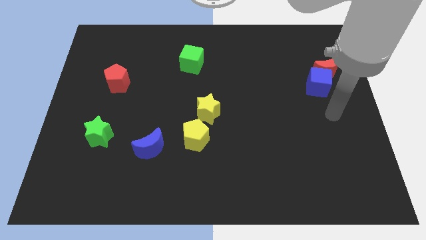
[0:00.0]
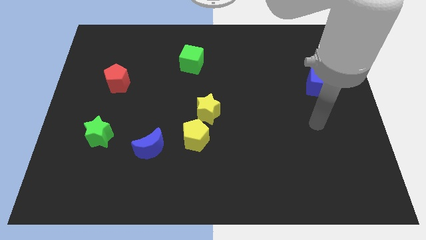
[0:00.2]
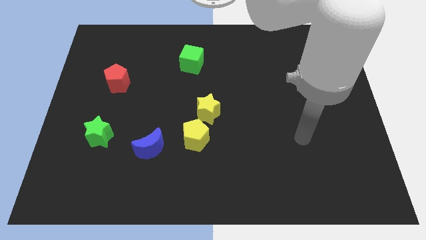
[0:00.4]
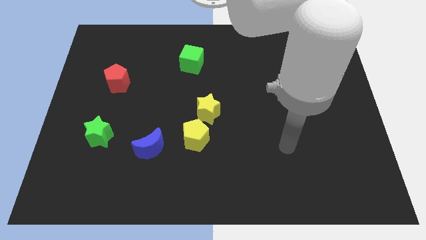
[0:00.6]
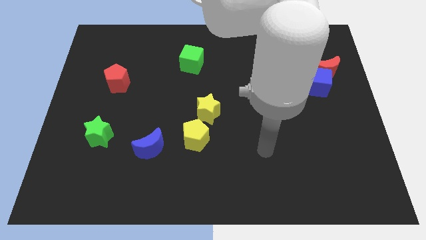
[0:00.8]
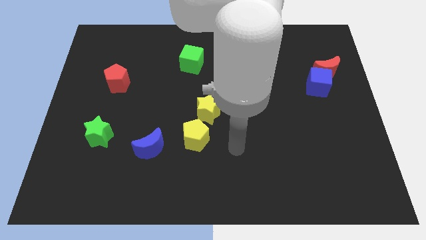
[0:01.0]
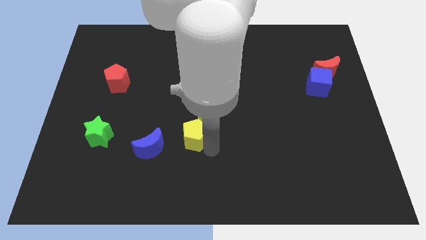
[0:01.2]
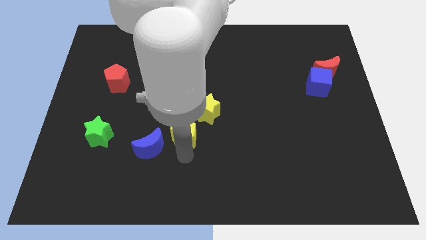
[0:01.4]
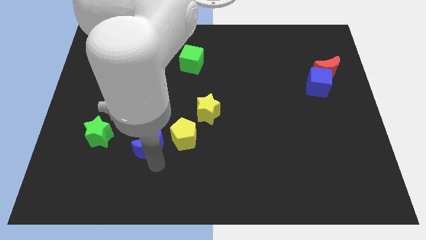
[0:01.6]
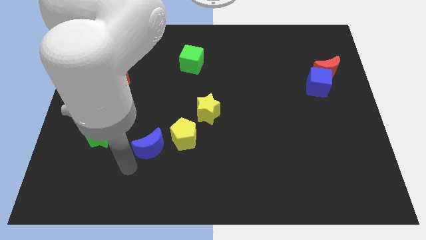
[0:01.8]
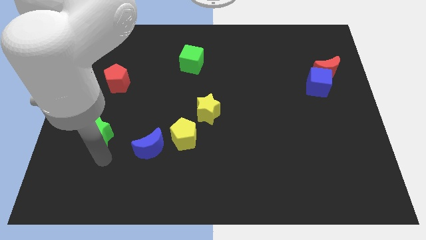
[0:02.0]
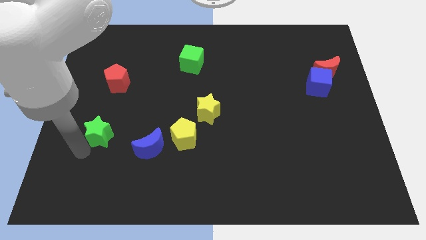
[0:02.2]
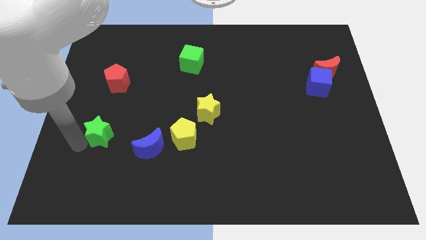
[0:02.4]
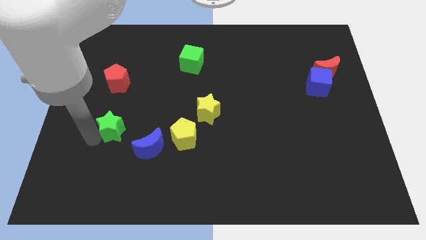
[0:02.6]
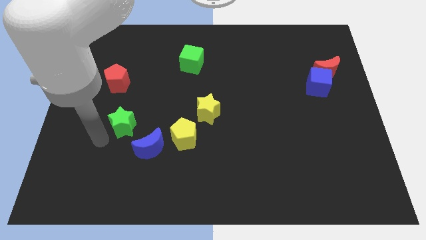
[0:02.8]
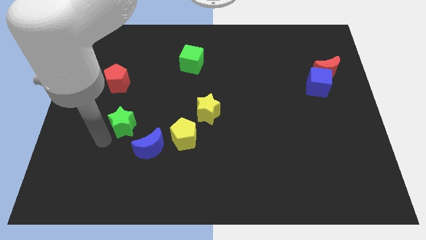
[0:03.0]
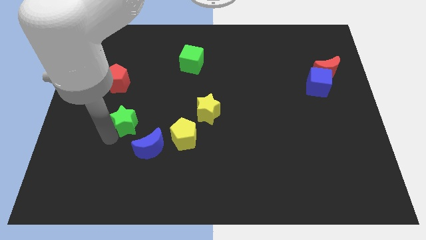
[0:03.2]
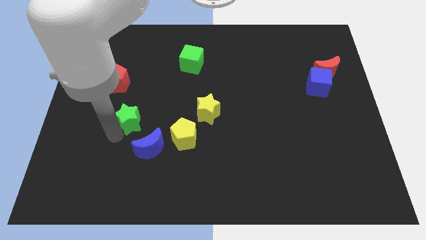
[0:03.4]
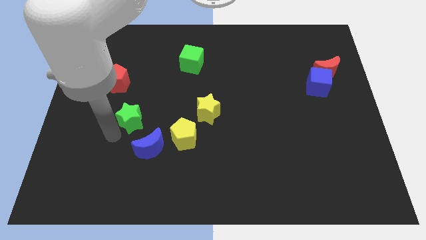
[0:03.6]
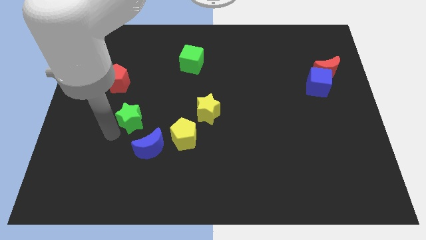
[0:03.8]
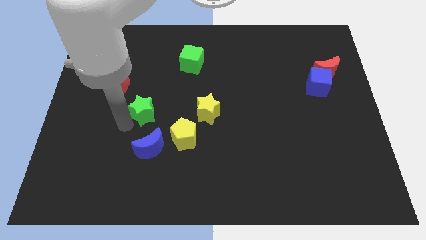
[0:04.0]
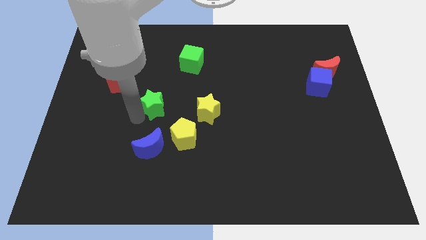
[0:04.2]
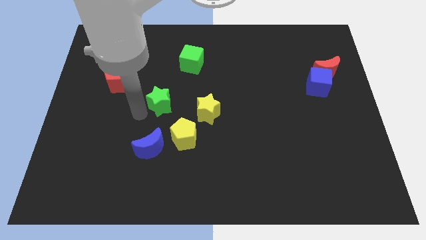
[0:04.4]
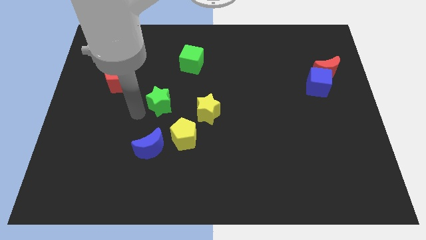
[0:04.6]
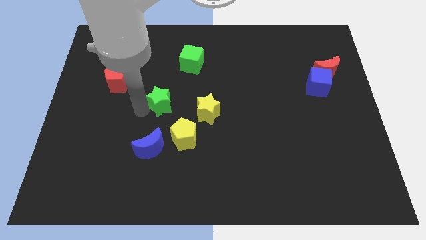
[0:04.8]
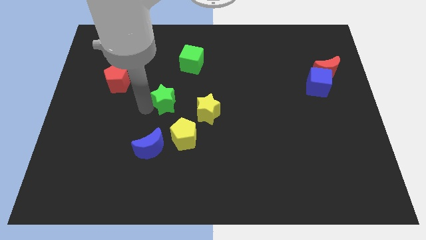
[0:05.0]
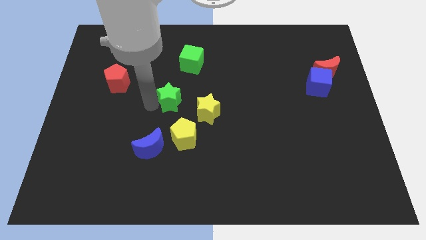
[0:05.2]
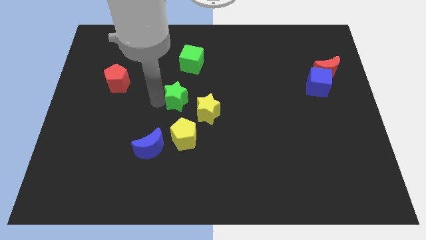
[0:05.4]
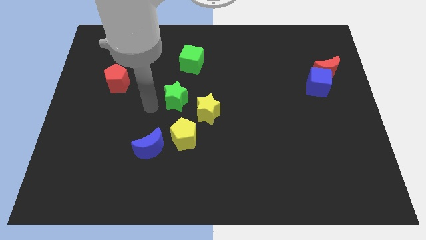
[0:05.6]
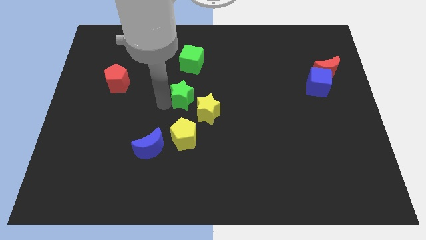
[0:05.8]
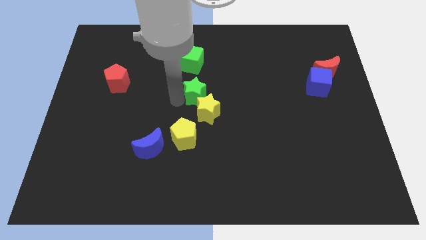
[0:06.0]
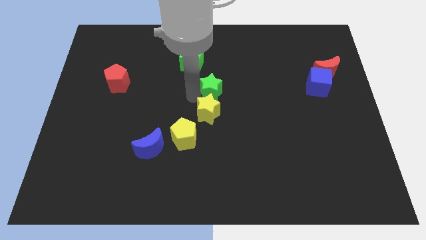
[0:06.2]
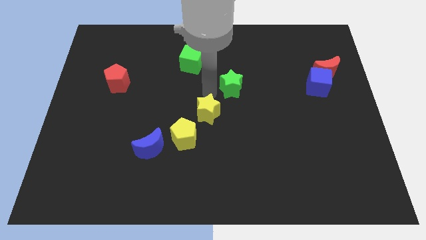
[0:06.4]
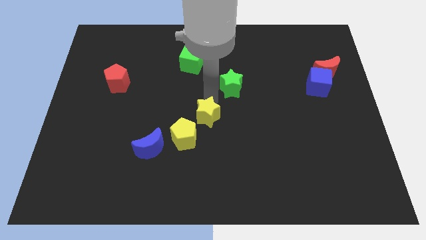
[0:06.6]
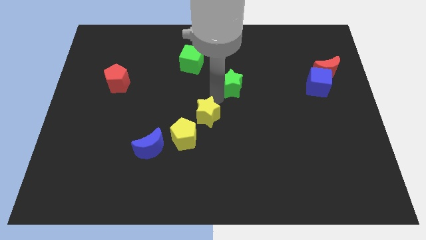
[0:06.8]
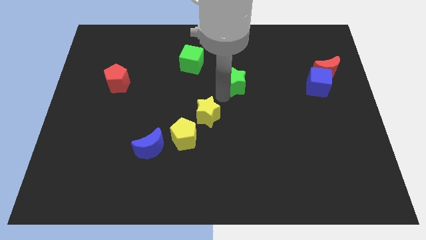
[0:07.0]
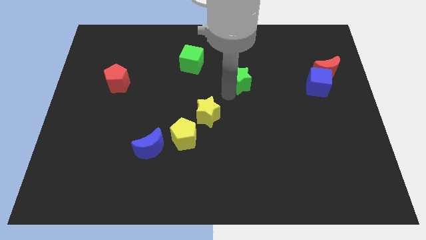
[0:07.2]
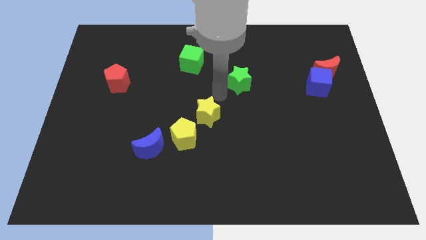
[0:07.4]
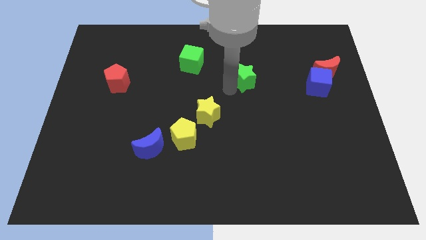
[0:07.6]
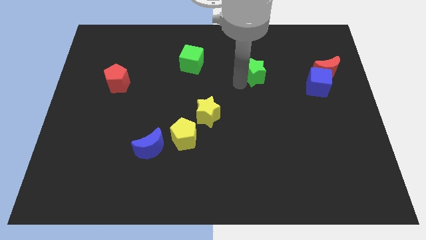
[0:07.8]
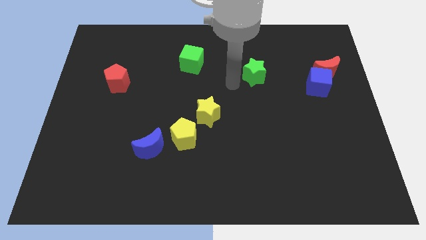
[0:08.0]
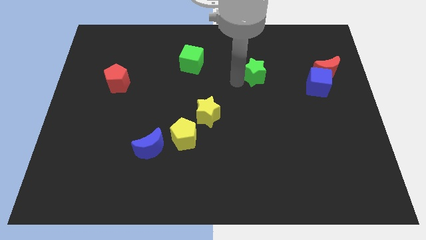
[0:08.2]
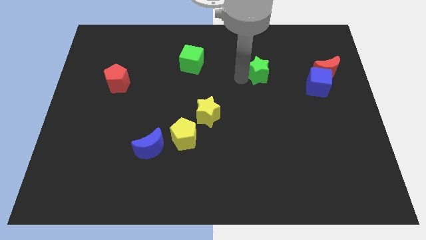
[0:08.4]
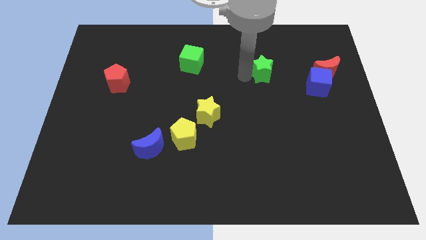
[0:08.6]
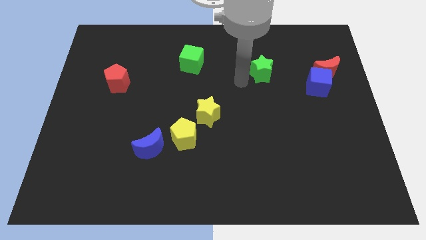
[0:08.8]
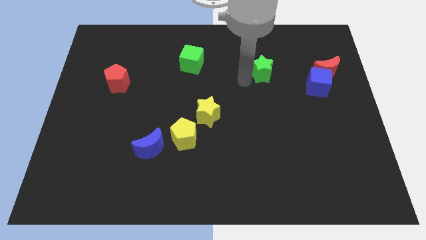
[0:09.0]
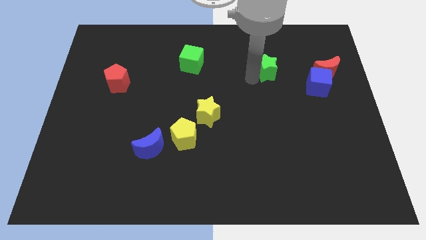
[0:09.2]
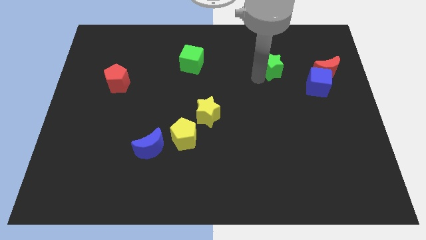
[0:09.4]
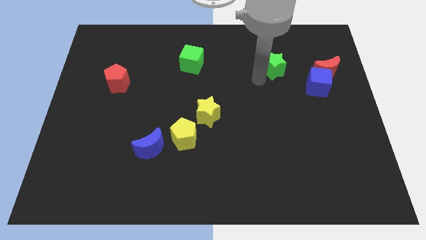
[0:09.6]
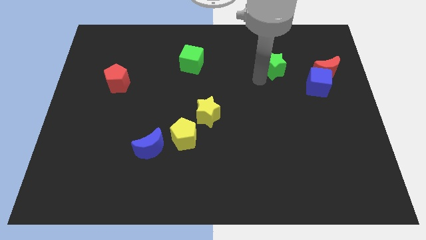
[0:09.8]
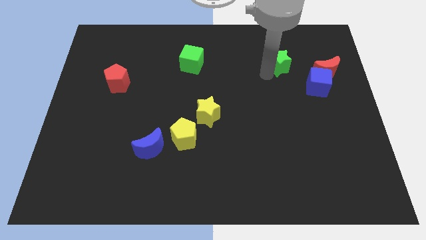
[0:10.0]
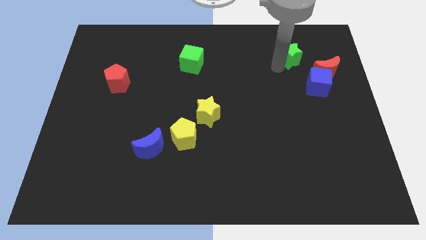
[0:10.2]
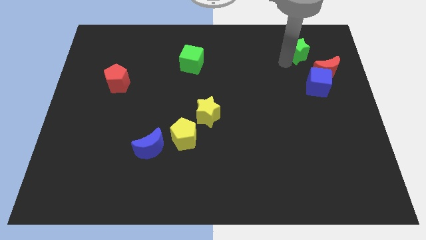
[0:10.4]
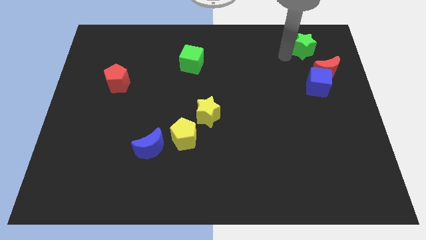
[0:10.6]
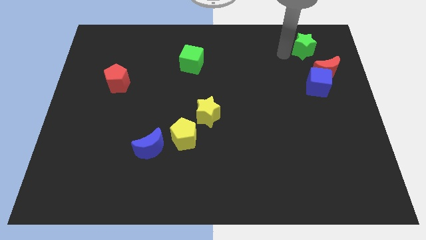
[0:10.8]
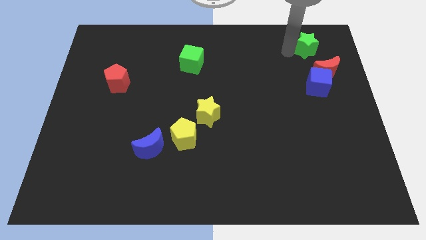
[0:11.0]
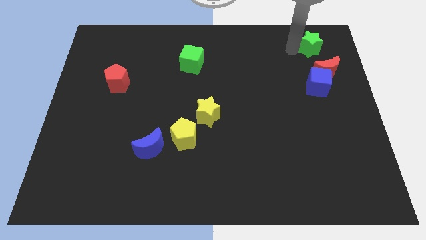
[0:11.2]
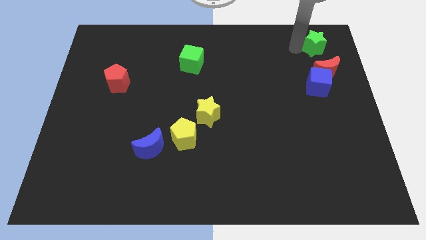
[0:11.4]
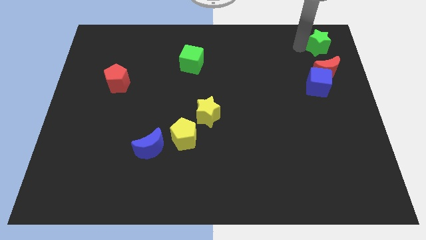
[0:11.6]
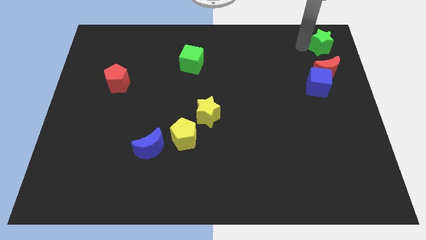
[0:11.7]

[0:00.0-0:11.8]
move the green star to the upper right corner

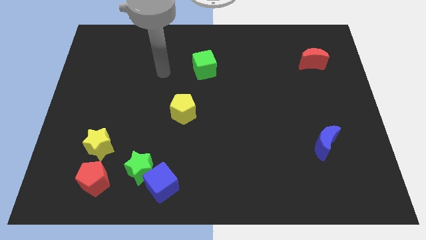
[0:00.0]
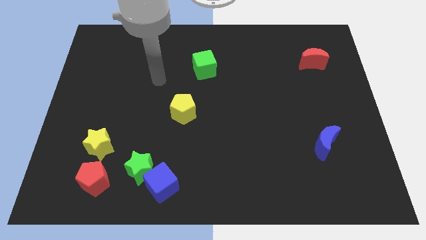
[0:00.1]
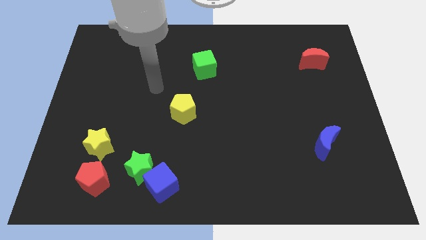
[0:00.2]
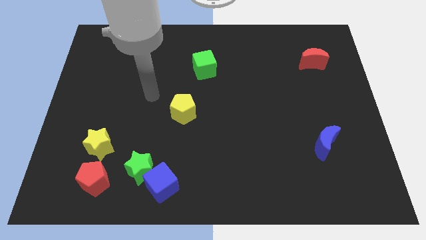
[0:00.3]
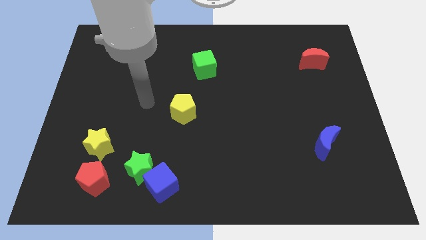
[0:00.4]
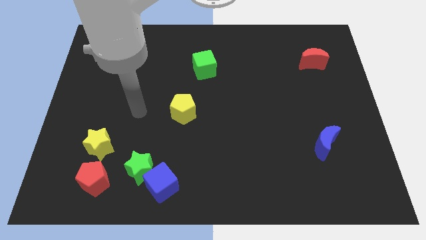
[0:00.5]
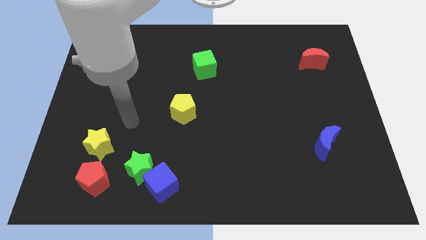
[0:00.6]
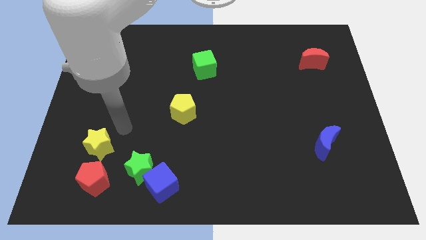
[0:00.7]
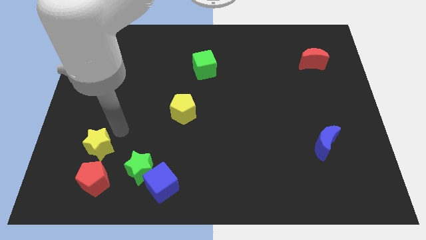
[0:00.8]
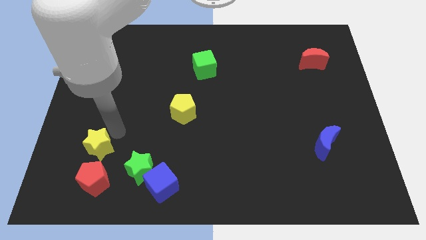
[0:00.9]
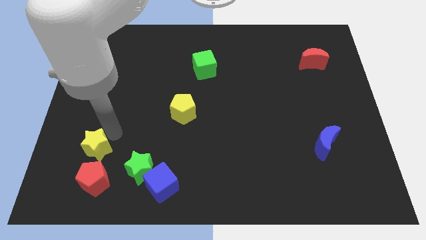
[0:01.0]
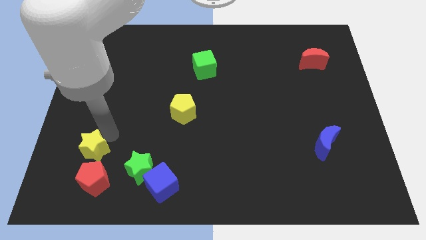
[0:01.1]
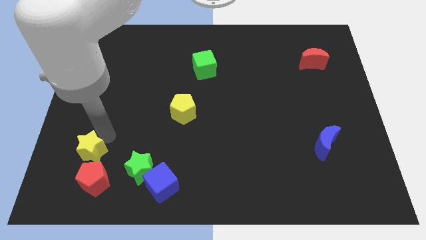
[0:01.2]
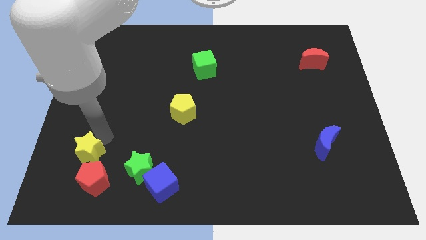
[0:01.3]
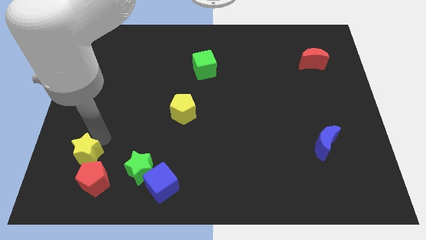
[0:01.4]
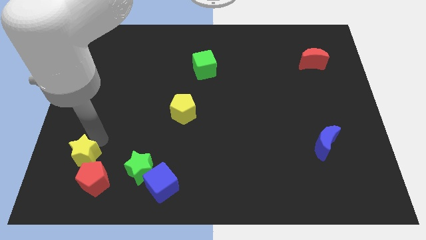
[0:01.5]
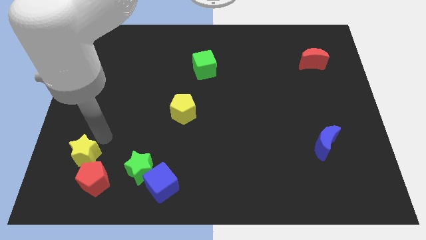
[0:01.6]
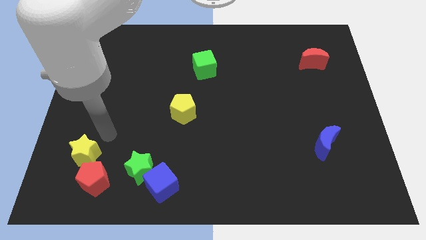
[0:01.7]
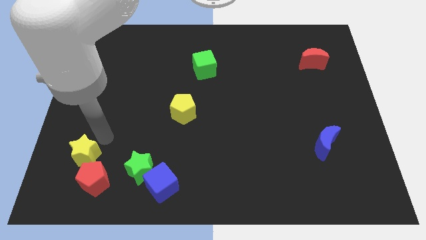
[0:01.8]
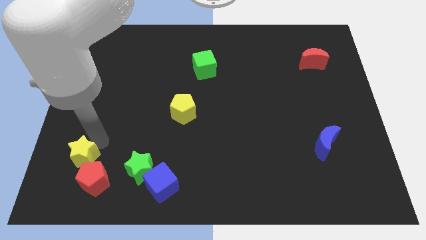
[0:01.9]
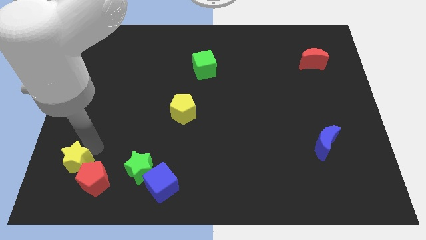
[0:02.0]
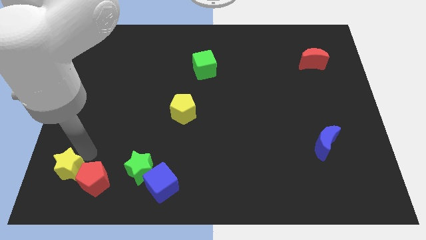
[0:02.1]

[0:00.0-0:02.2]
move the yellow star to the bottom left corner
